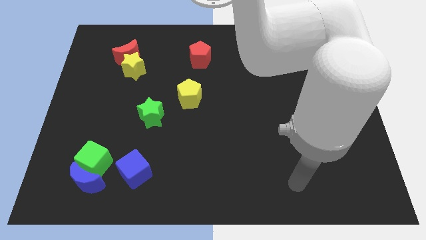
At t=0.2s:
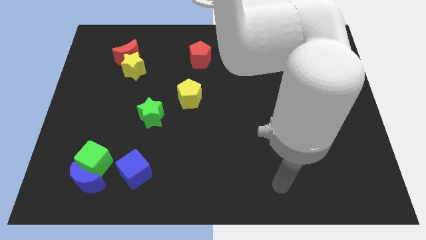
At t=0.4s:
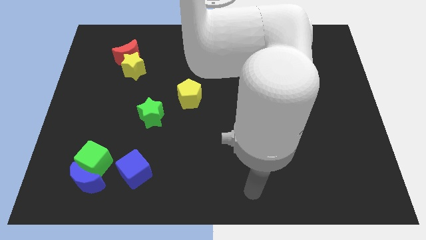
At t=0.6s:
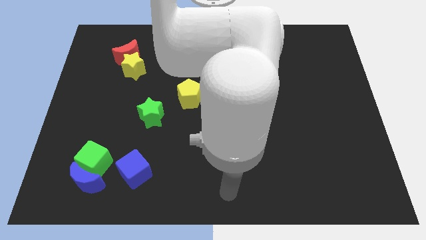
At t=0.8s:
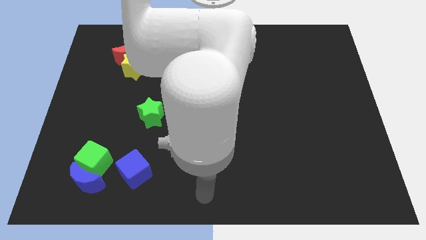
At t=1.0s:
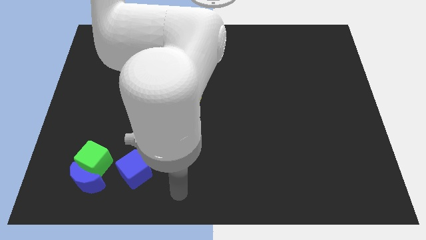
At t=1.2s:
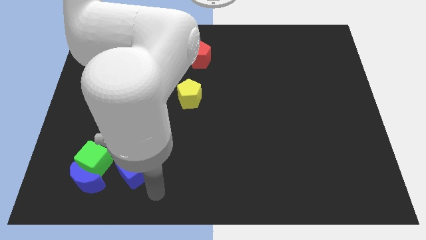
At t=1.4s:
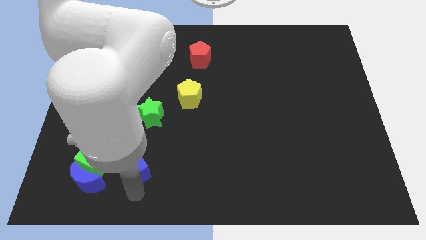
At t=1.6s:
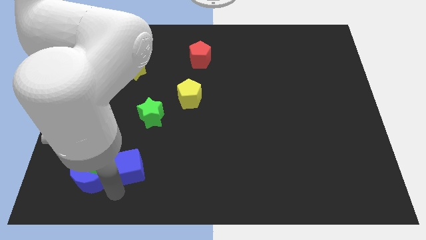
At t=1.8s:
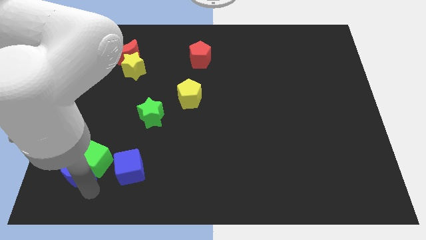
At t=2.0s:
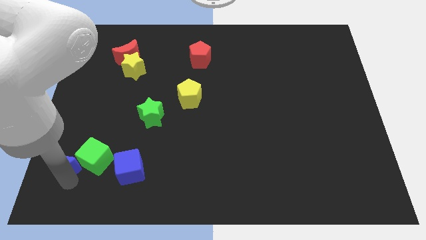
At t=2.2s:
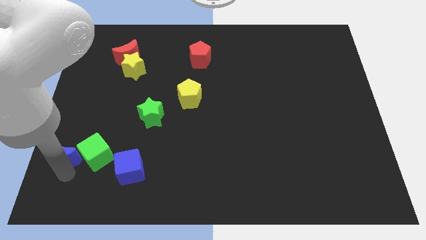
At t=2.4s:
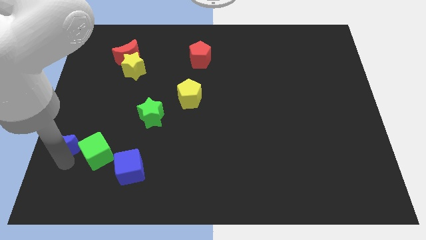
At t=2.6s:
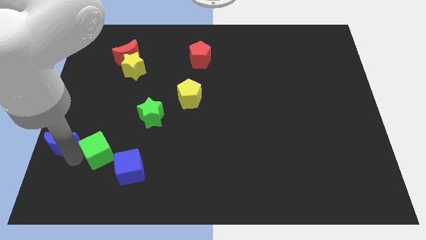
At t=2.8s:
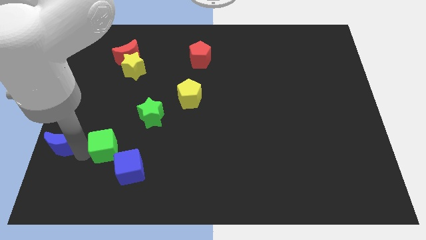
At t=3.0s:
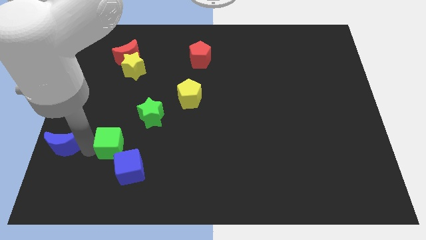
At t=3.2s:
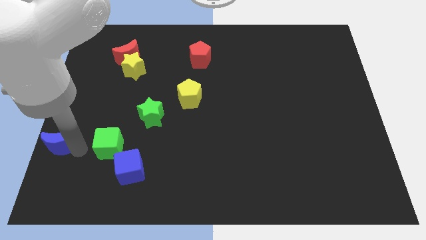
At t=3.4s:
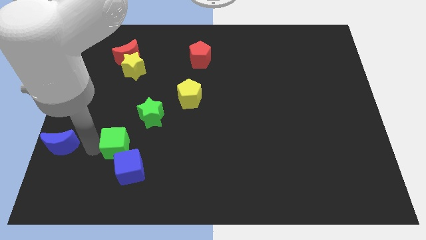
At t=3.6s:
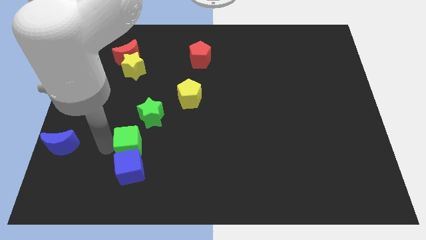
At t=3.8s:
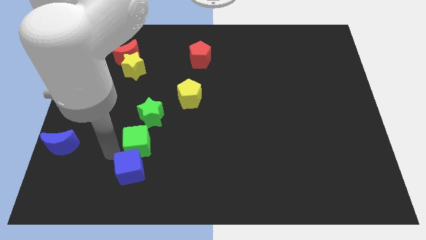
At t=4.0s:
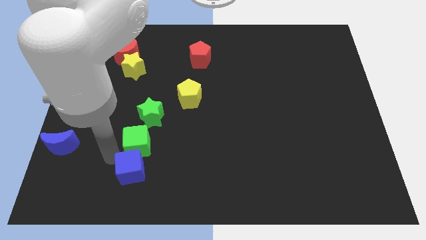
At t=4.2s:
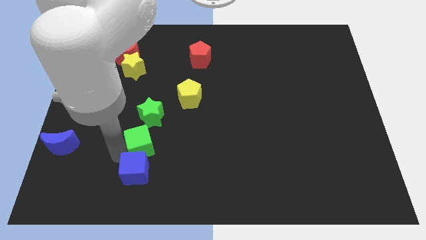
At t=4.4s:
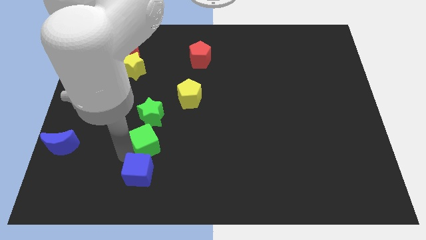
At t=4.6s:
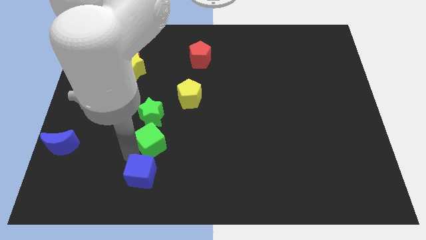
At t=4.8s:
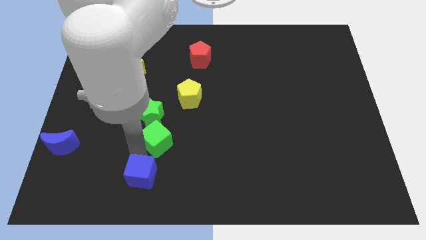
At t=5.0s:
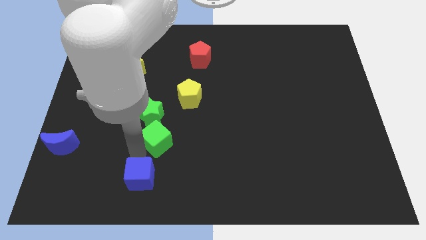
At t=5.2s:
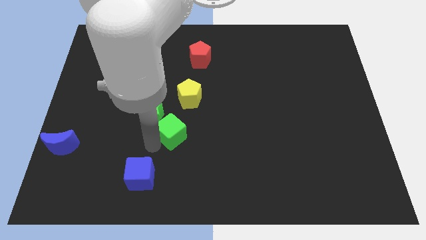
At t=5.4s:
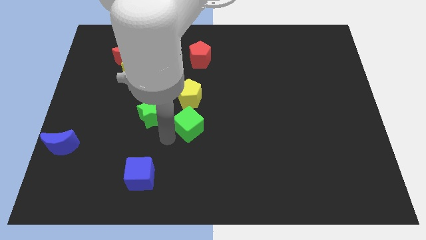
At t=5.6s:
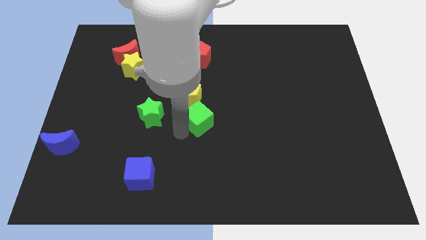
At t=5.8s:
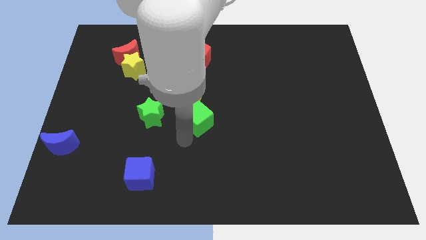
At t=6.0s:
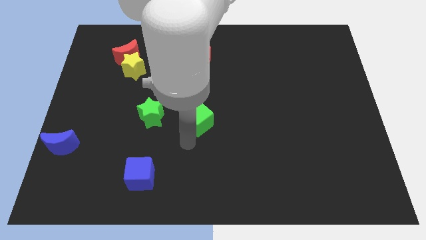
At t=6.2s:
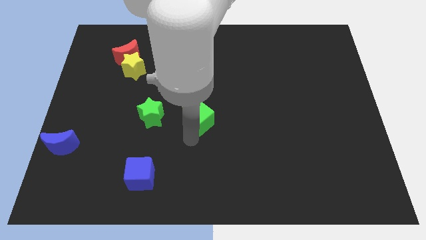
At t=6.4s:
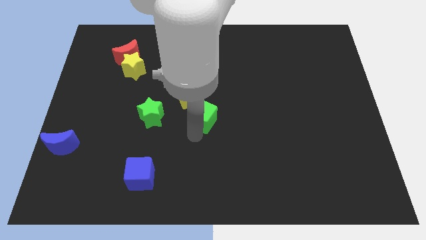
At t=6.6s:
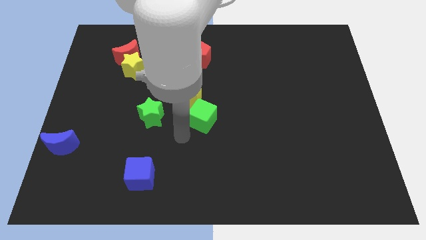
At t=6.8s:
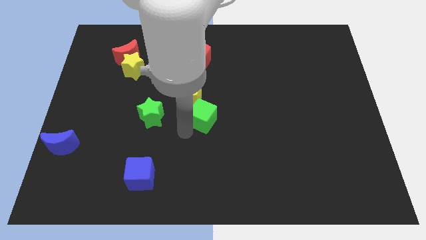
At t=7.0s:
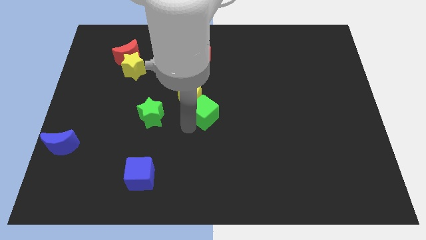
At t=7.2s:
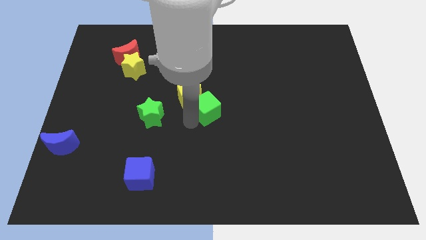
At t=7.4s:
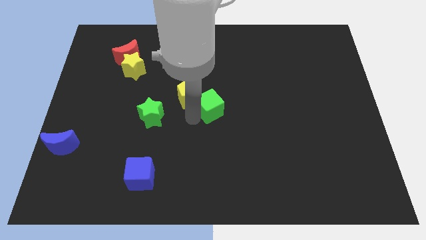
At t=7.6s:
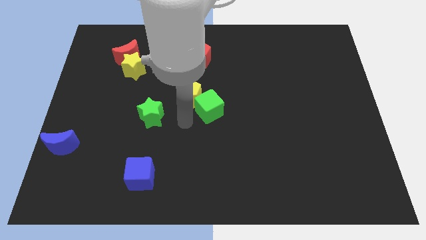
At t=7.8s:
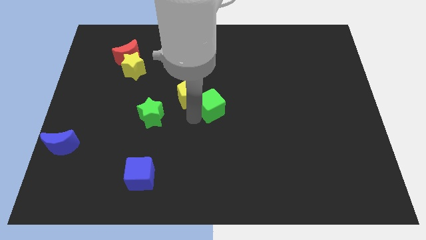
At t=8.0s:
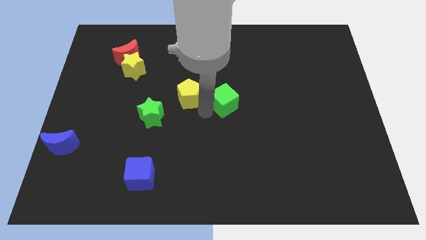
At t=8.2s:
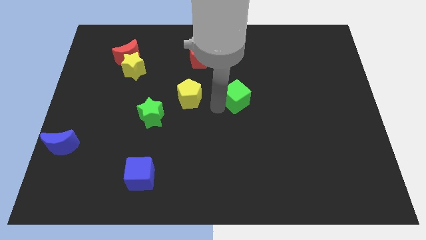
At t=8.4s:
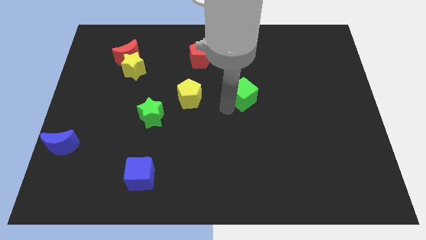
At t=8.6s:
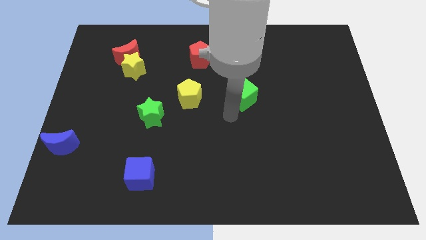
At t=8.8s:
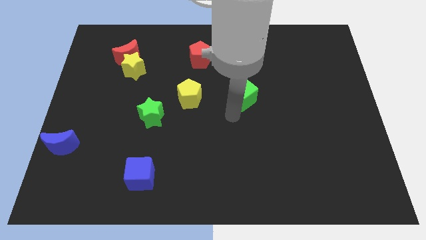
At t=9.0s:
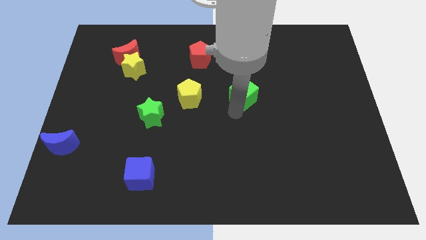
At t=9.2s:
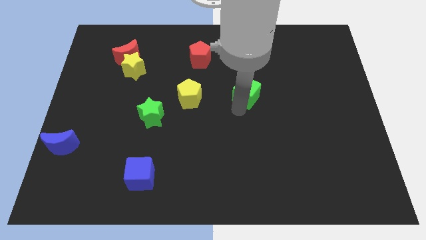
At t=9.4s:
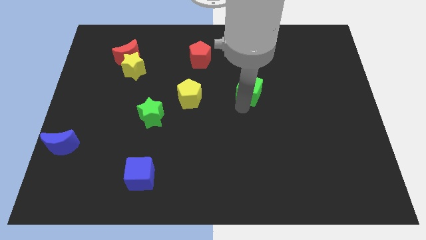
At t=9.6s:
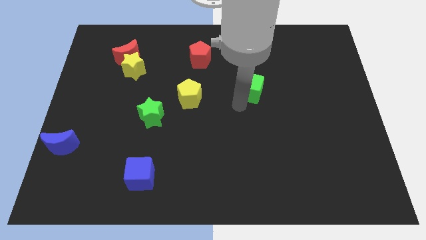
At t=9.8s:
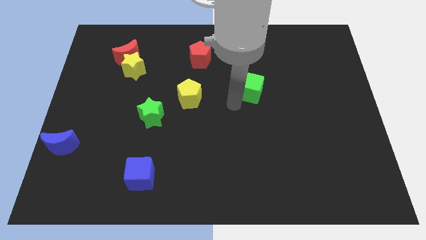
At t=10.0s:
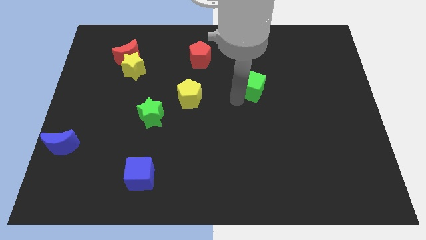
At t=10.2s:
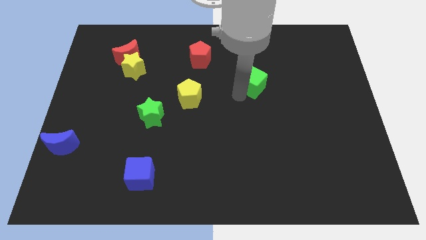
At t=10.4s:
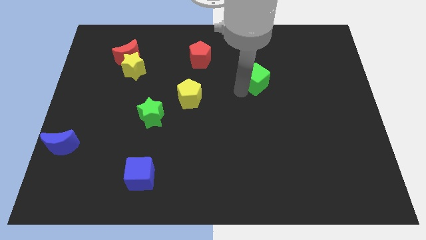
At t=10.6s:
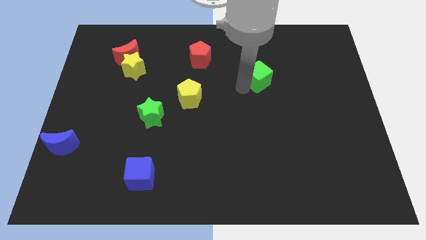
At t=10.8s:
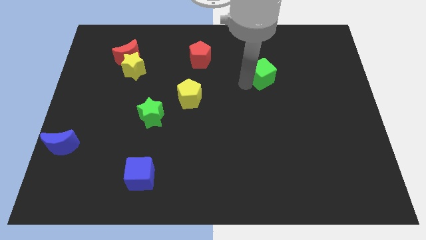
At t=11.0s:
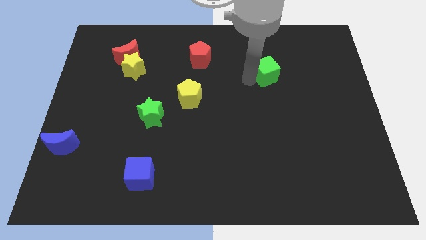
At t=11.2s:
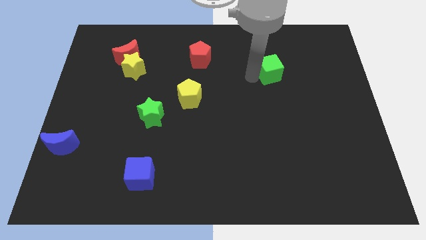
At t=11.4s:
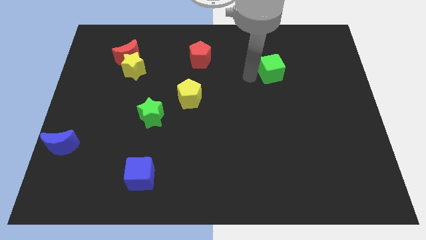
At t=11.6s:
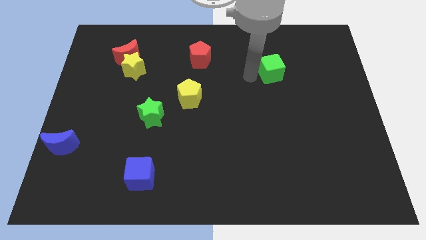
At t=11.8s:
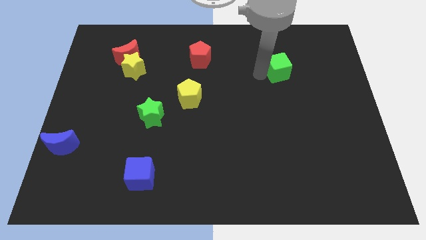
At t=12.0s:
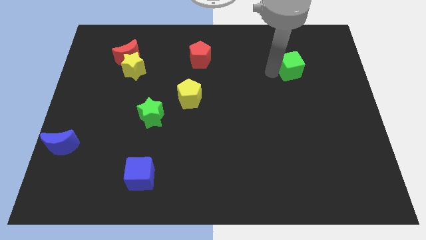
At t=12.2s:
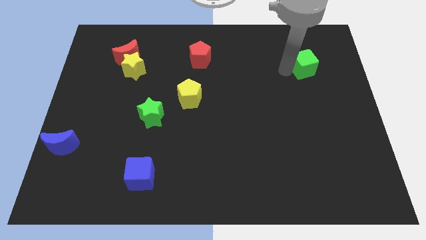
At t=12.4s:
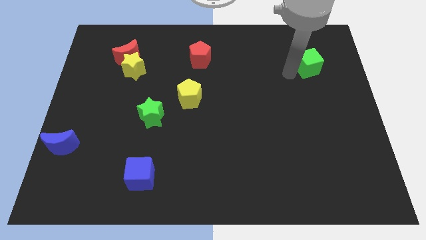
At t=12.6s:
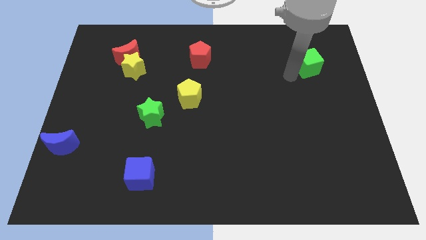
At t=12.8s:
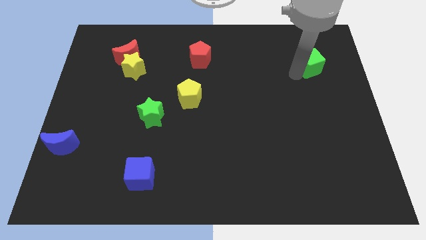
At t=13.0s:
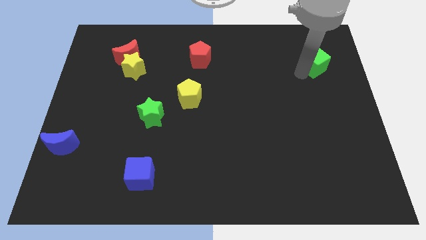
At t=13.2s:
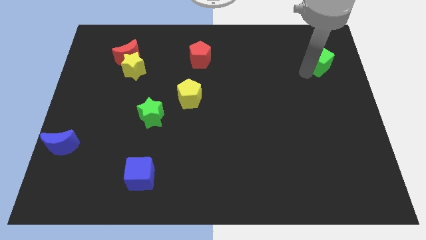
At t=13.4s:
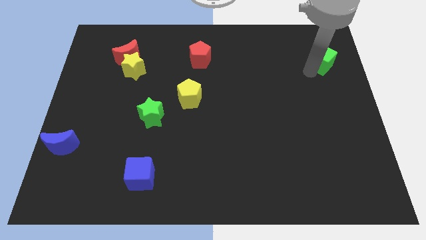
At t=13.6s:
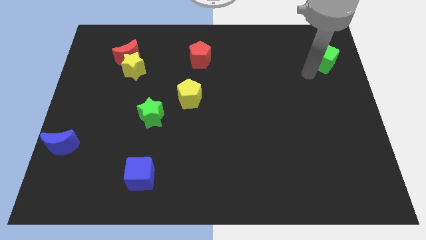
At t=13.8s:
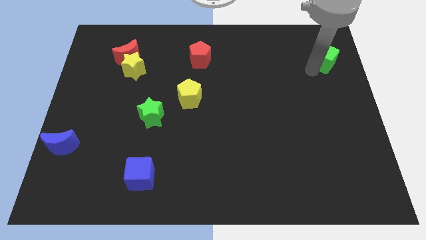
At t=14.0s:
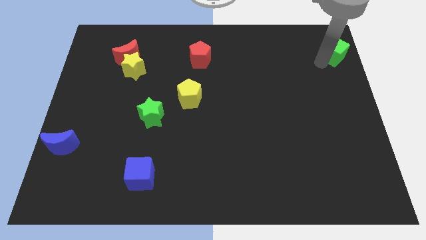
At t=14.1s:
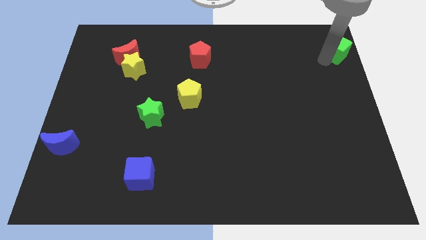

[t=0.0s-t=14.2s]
move the green cube to the upper right corner

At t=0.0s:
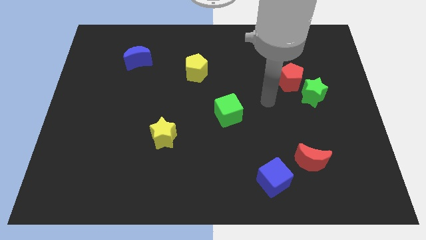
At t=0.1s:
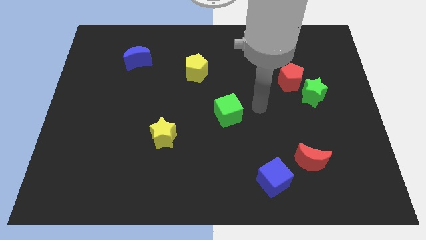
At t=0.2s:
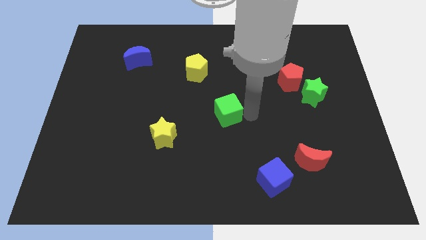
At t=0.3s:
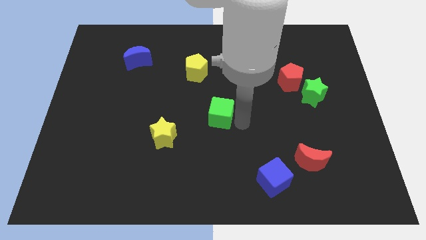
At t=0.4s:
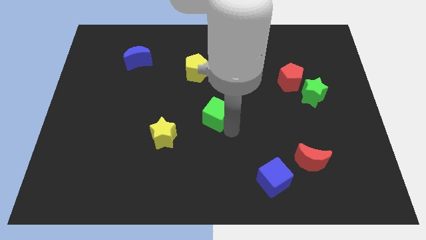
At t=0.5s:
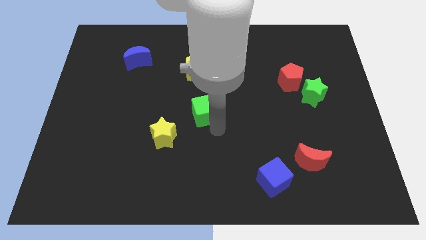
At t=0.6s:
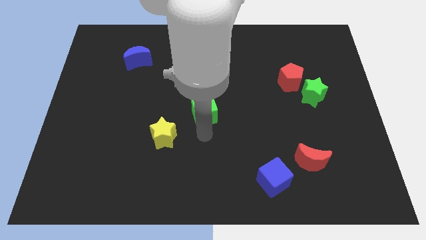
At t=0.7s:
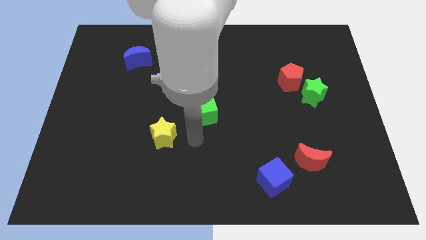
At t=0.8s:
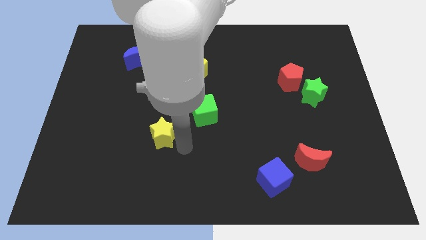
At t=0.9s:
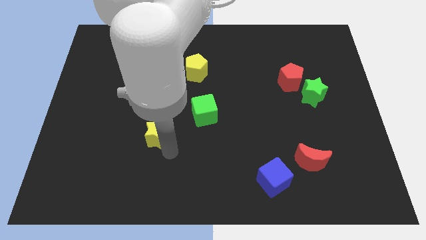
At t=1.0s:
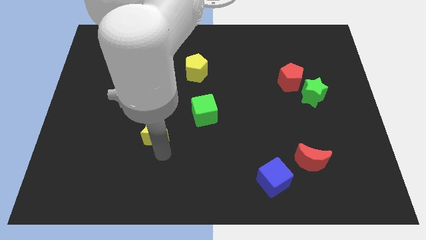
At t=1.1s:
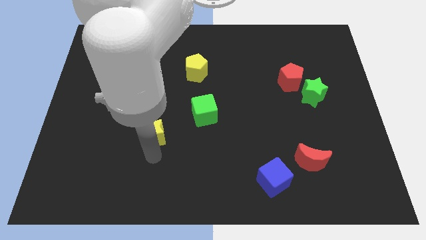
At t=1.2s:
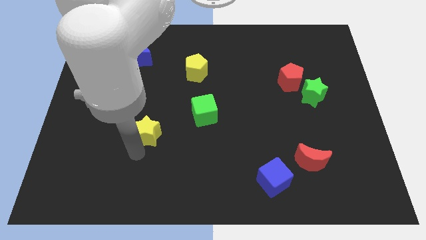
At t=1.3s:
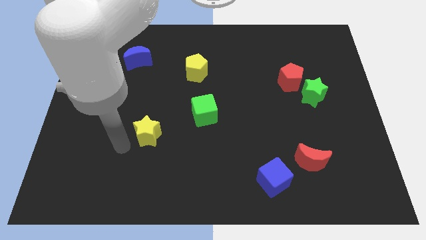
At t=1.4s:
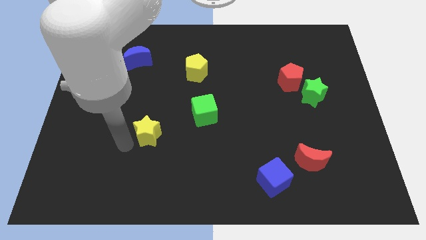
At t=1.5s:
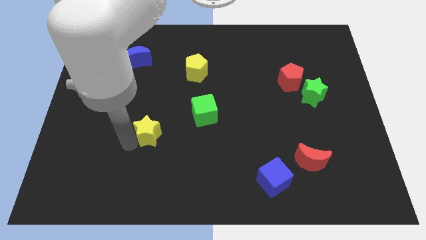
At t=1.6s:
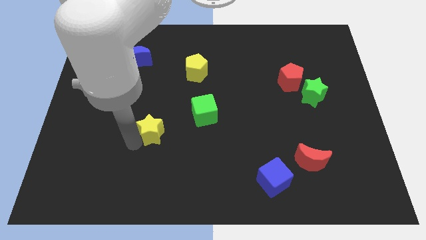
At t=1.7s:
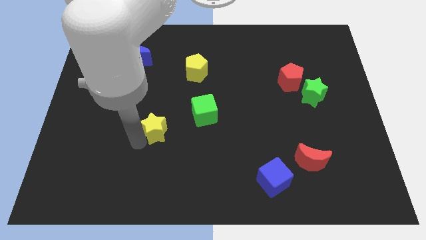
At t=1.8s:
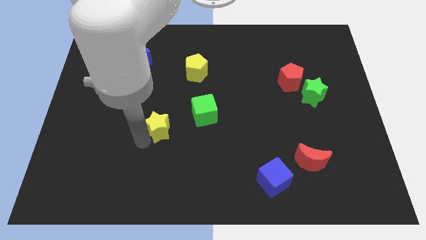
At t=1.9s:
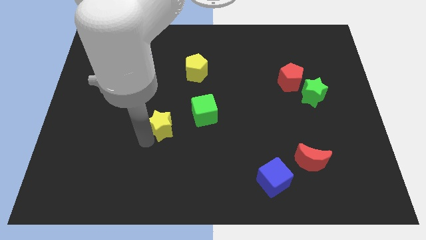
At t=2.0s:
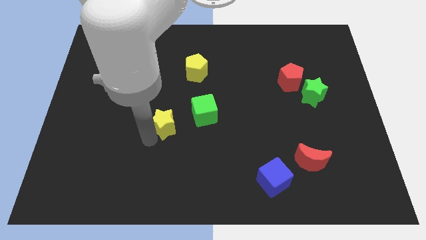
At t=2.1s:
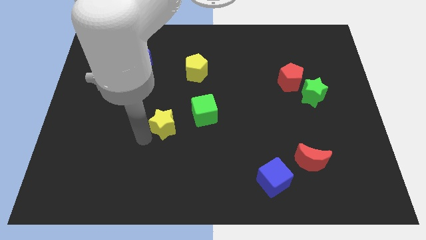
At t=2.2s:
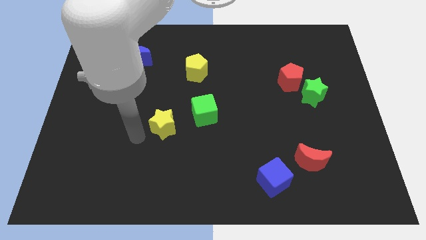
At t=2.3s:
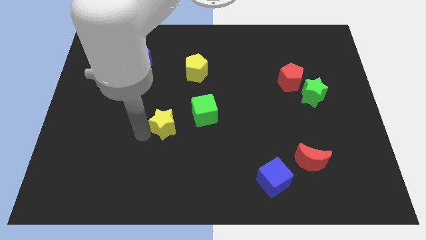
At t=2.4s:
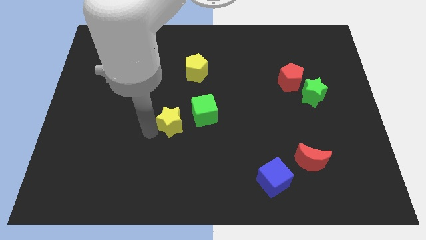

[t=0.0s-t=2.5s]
slide the yellow star to the middle
